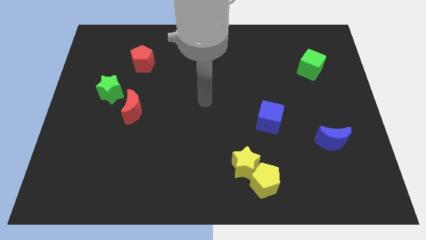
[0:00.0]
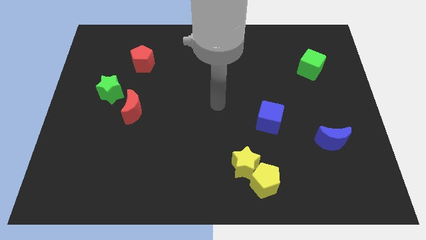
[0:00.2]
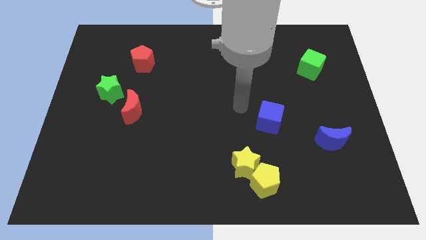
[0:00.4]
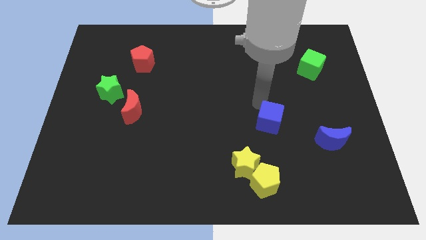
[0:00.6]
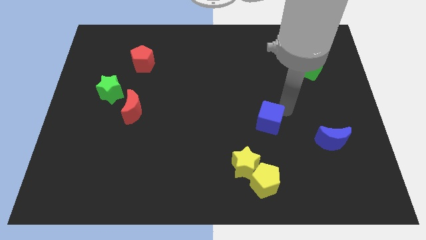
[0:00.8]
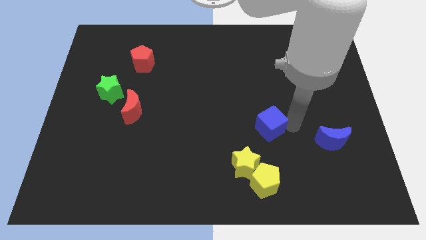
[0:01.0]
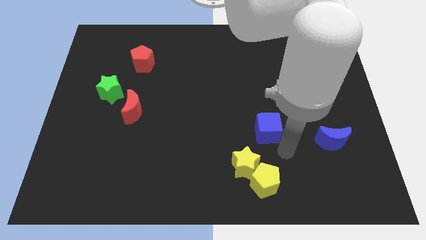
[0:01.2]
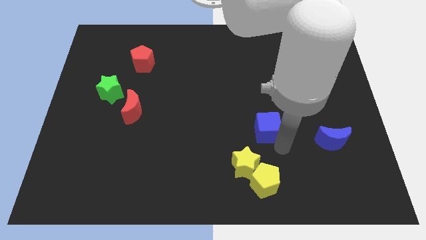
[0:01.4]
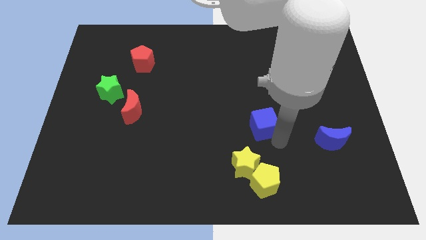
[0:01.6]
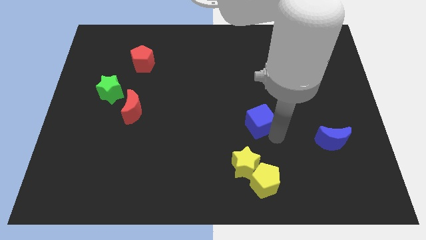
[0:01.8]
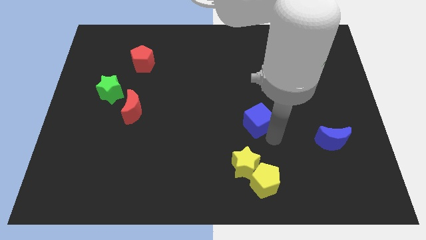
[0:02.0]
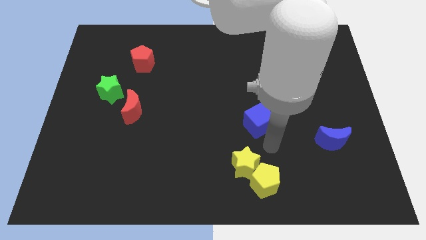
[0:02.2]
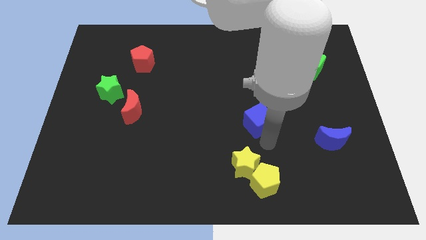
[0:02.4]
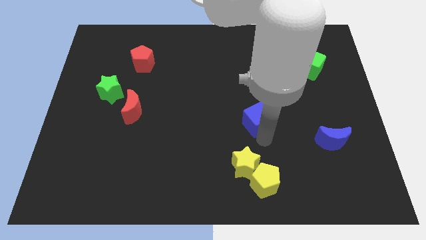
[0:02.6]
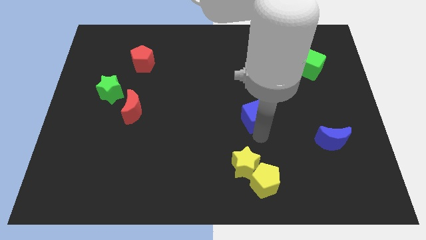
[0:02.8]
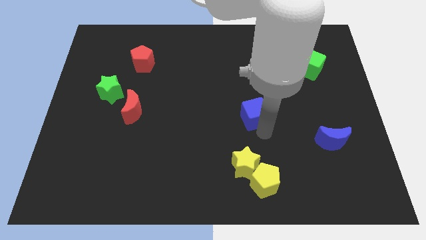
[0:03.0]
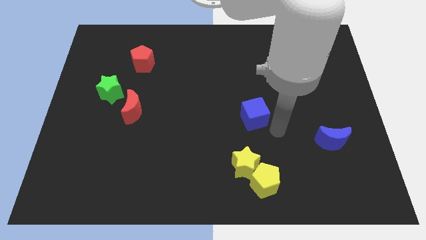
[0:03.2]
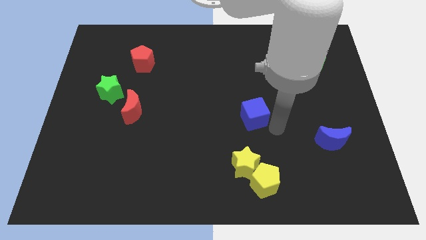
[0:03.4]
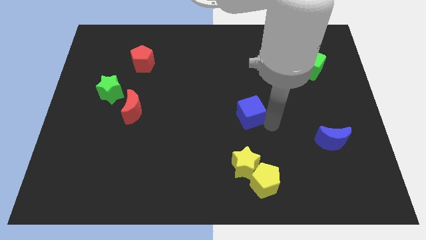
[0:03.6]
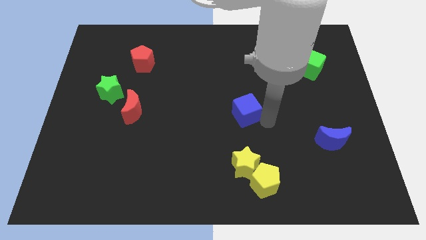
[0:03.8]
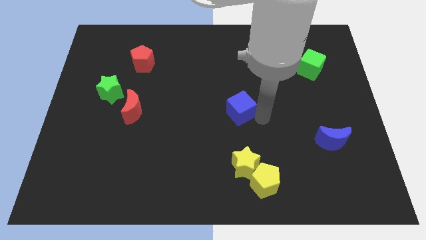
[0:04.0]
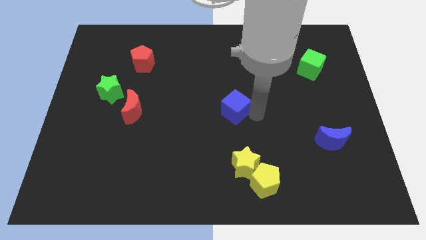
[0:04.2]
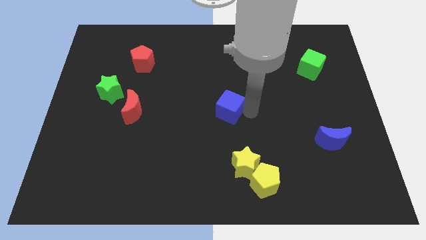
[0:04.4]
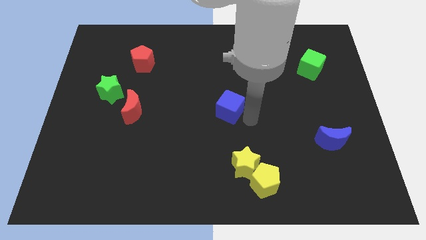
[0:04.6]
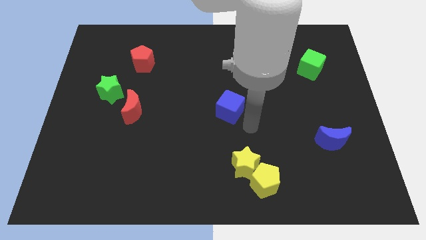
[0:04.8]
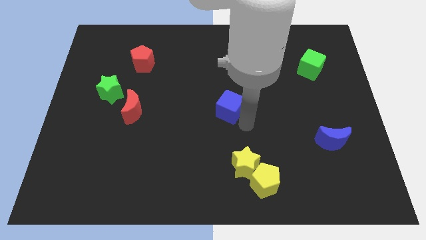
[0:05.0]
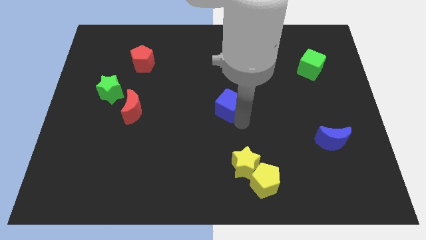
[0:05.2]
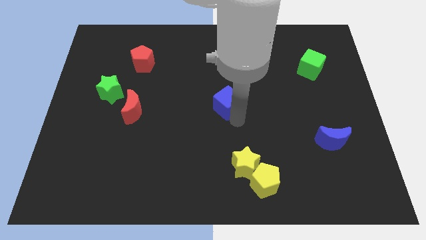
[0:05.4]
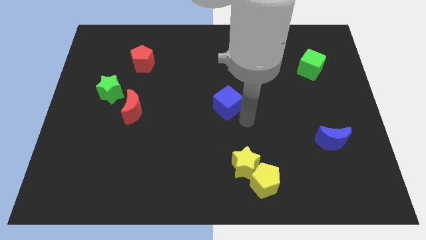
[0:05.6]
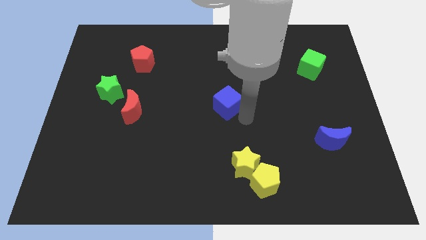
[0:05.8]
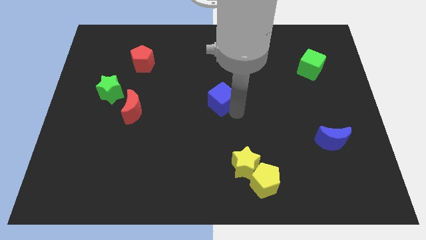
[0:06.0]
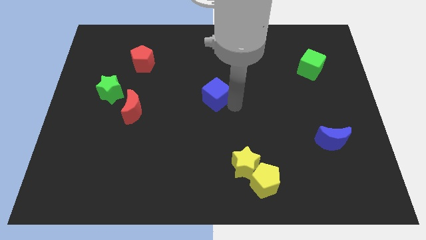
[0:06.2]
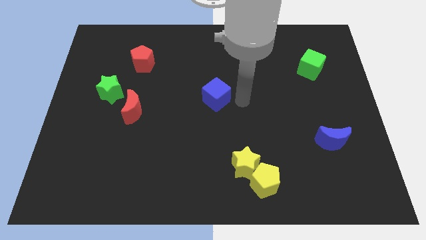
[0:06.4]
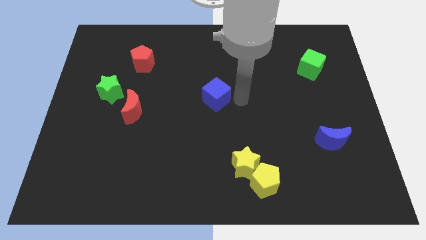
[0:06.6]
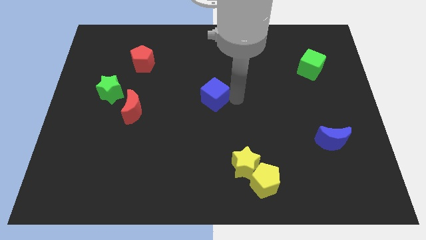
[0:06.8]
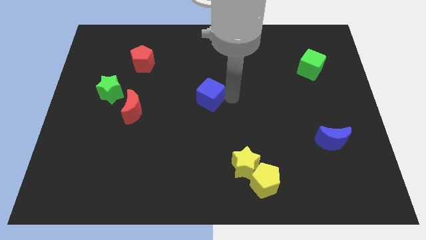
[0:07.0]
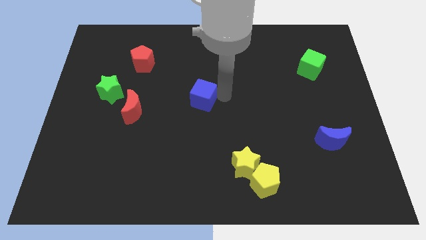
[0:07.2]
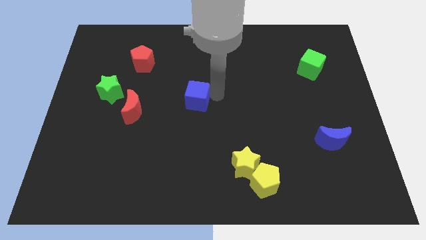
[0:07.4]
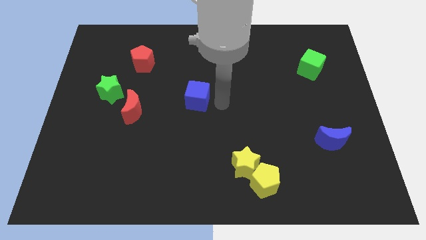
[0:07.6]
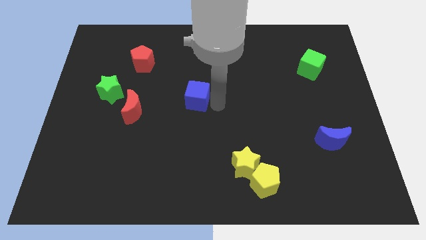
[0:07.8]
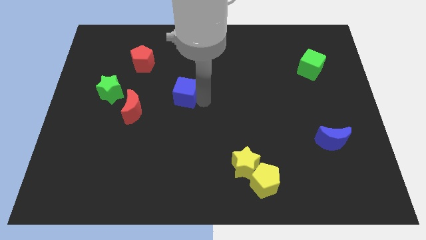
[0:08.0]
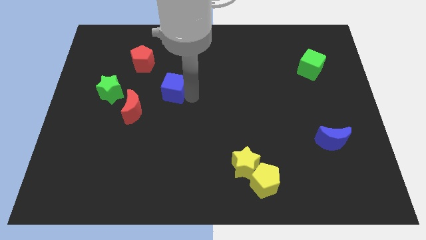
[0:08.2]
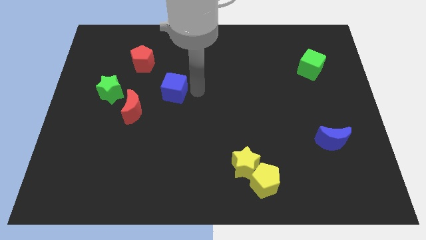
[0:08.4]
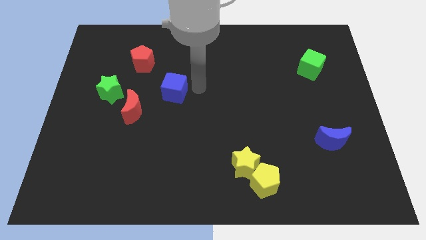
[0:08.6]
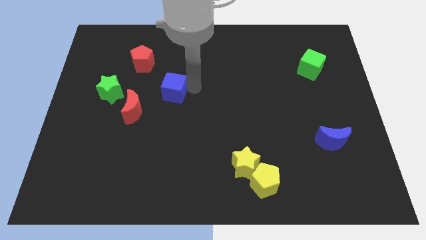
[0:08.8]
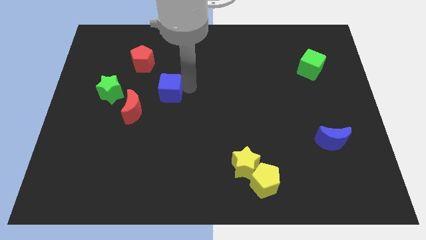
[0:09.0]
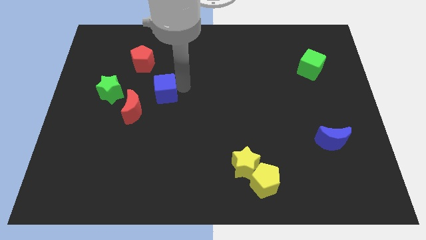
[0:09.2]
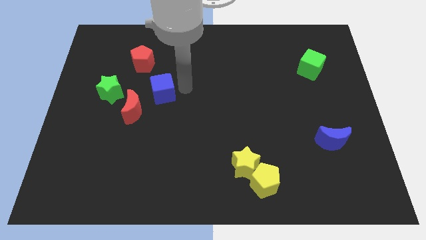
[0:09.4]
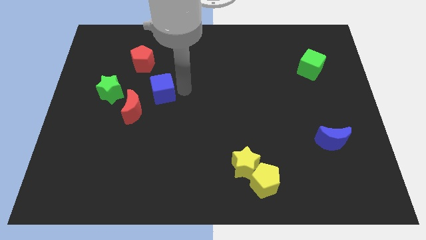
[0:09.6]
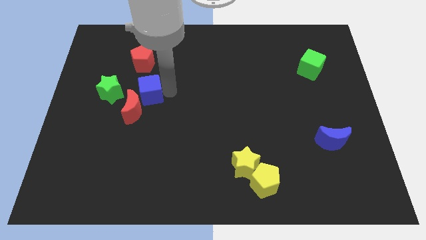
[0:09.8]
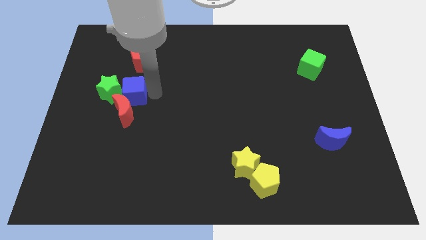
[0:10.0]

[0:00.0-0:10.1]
push the blue cube towards the green star

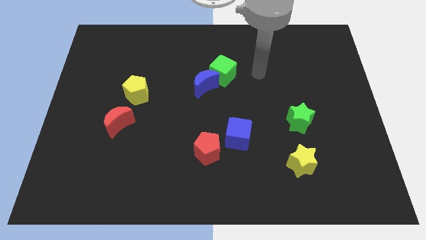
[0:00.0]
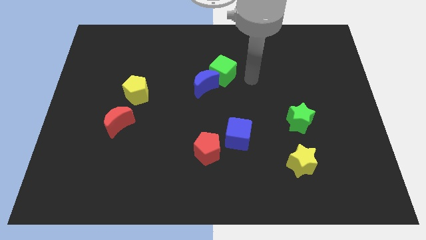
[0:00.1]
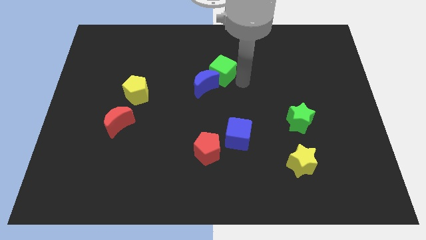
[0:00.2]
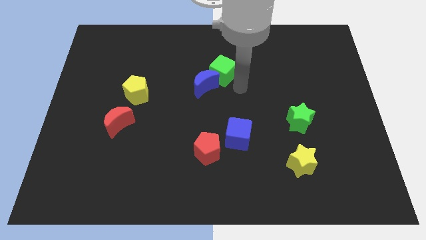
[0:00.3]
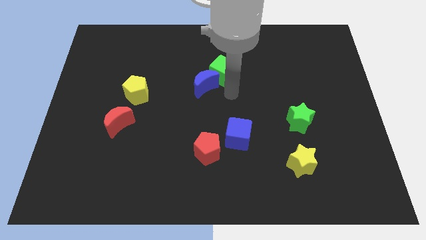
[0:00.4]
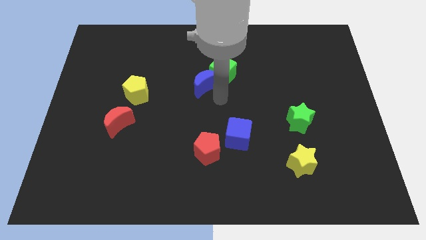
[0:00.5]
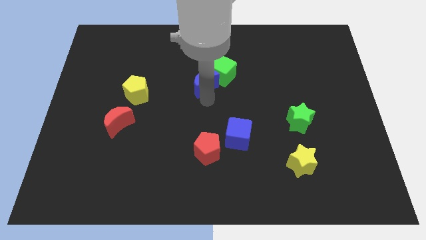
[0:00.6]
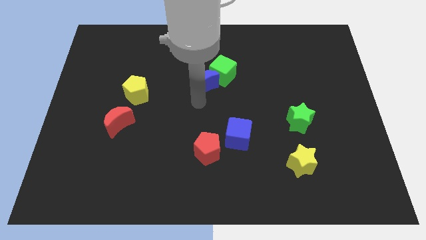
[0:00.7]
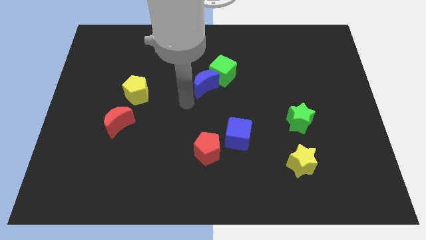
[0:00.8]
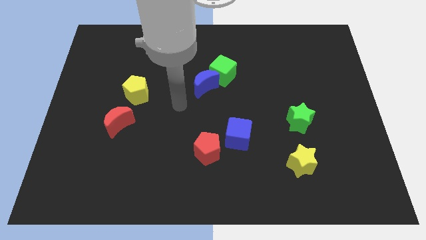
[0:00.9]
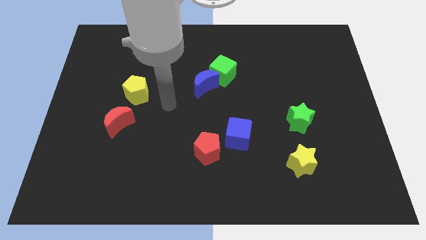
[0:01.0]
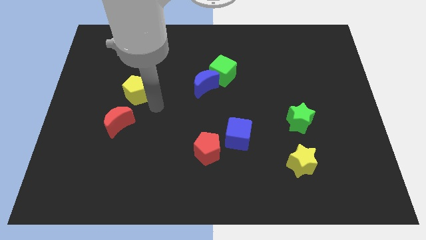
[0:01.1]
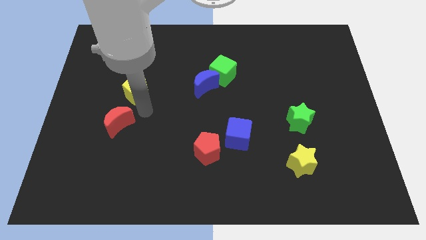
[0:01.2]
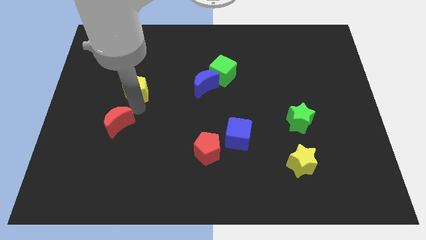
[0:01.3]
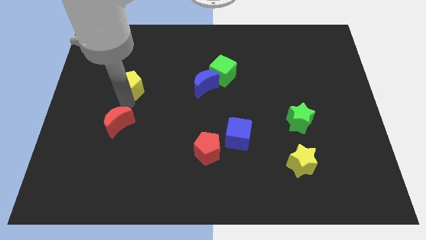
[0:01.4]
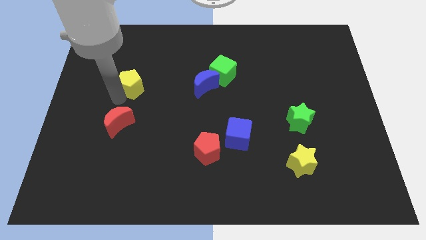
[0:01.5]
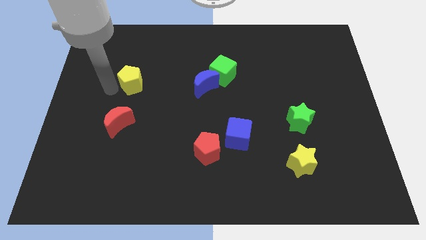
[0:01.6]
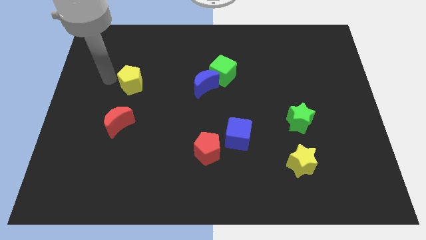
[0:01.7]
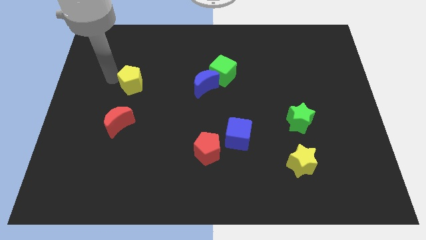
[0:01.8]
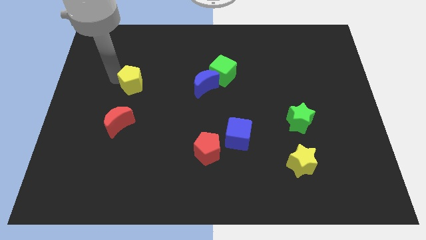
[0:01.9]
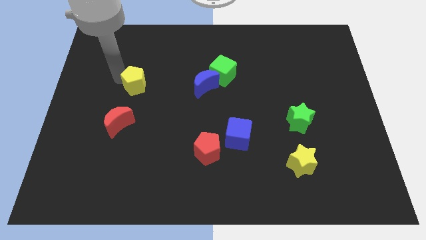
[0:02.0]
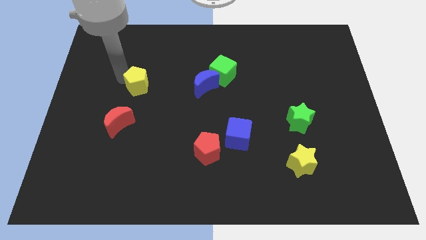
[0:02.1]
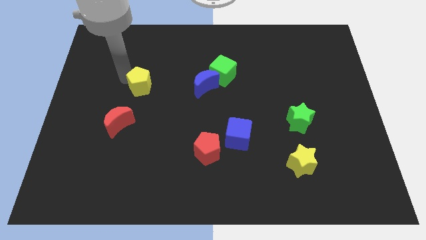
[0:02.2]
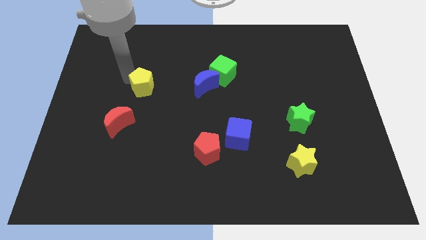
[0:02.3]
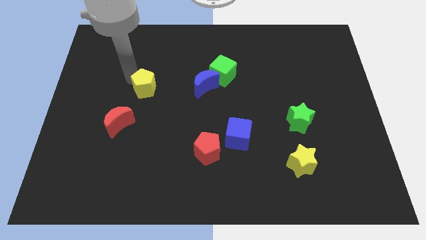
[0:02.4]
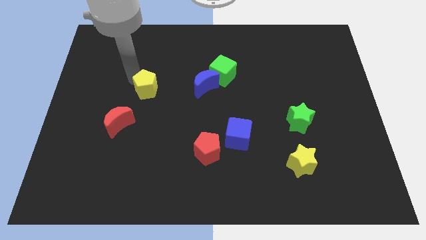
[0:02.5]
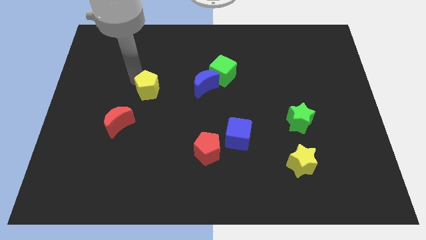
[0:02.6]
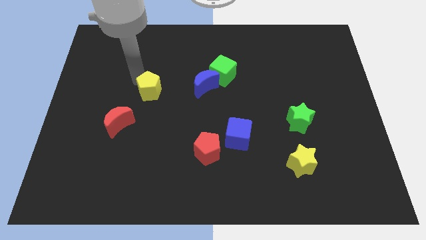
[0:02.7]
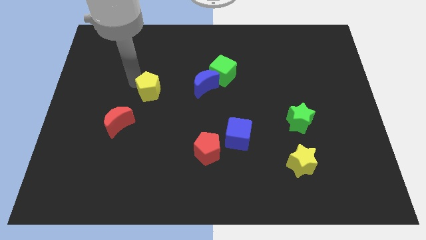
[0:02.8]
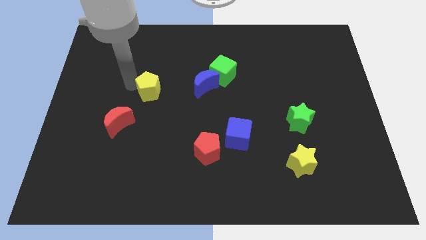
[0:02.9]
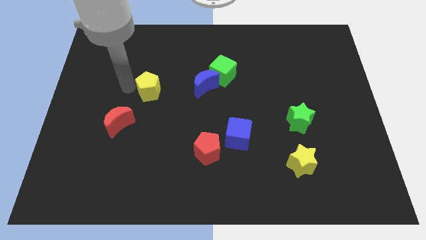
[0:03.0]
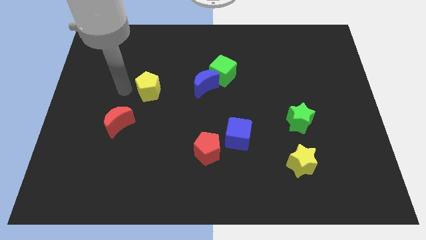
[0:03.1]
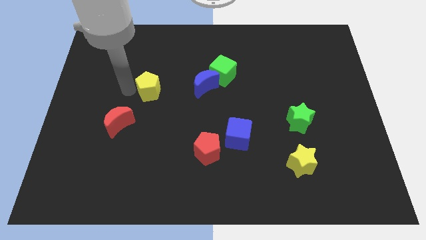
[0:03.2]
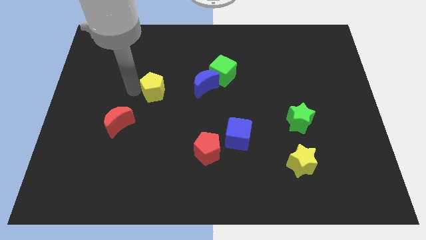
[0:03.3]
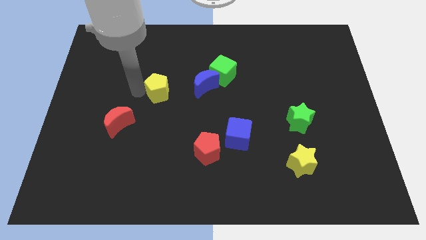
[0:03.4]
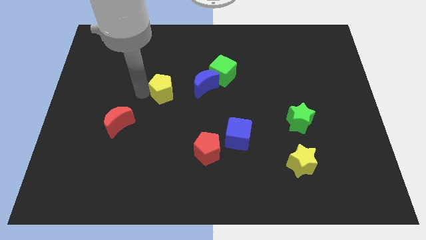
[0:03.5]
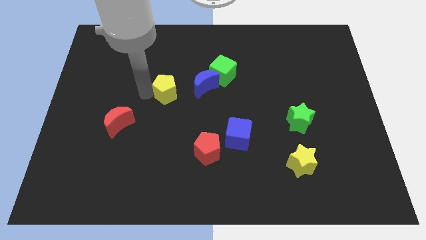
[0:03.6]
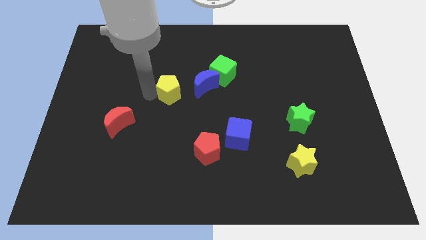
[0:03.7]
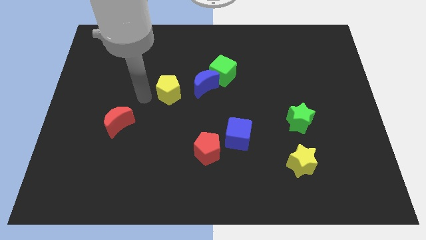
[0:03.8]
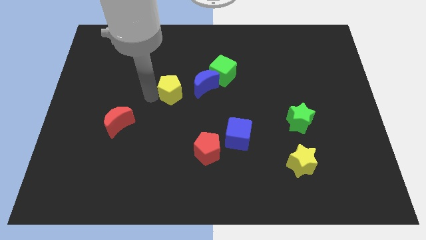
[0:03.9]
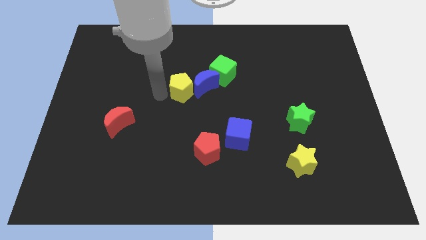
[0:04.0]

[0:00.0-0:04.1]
move the yellow pentagon to the blue moon
